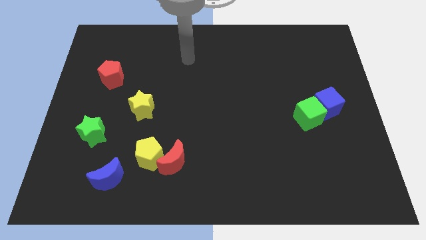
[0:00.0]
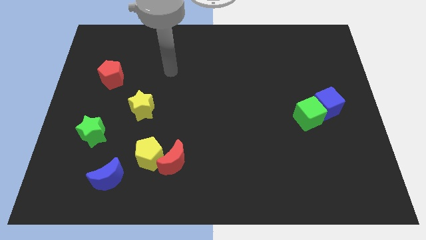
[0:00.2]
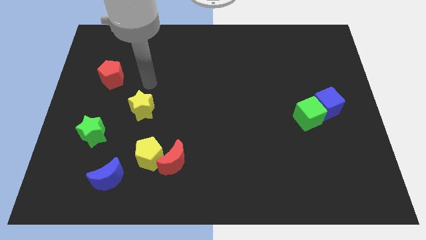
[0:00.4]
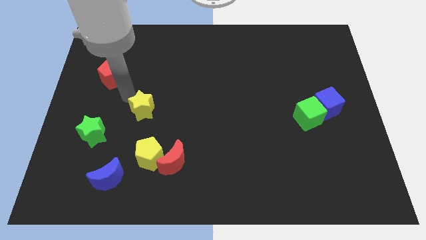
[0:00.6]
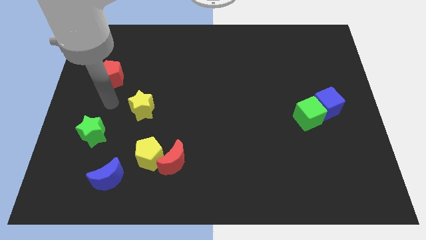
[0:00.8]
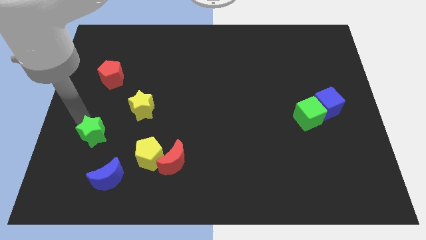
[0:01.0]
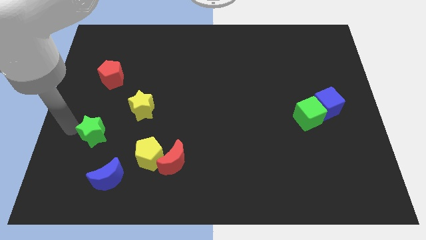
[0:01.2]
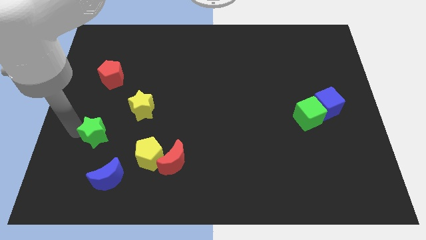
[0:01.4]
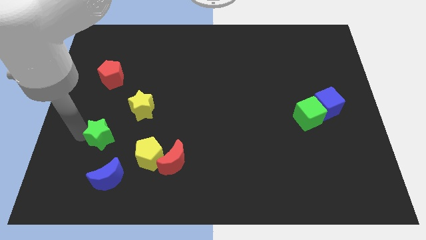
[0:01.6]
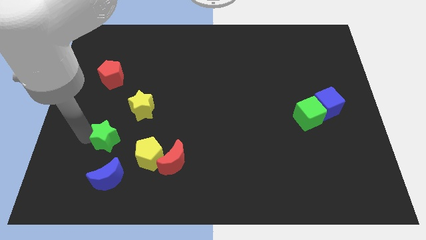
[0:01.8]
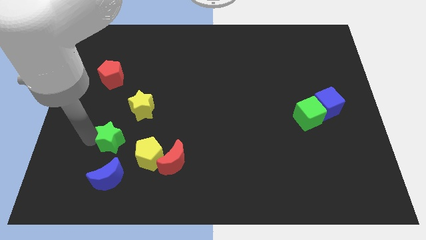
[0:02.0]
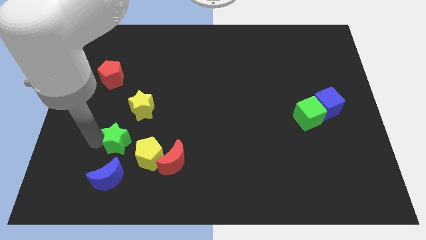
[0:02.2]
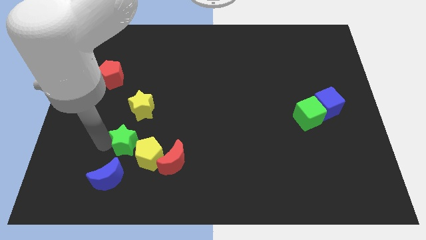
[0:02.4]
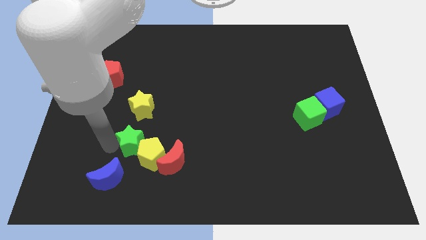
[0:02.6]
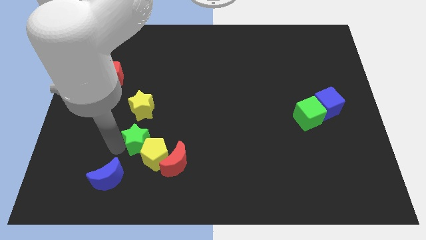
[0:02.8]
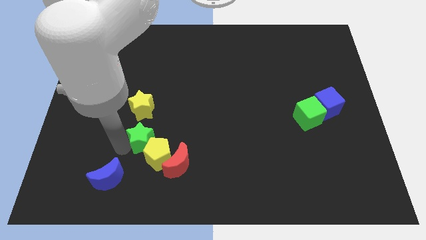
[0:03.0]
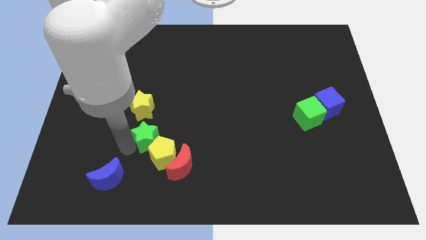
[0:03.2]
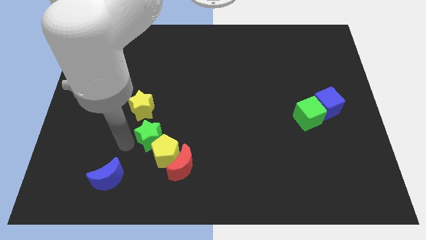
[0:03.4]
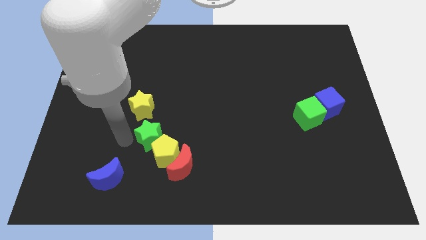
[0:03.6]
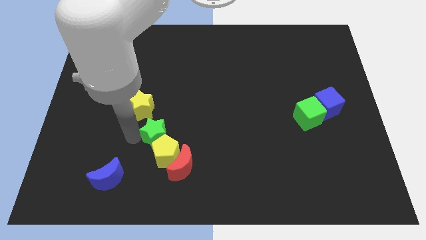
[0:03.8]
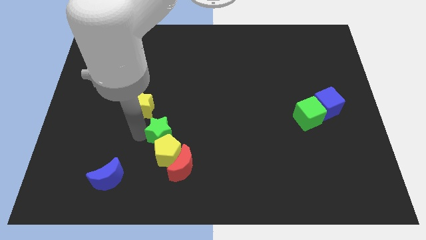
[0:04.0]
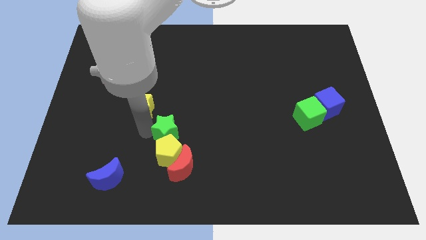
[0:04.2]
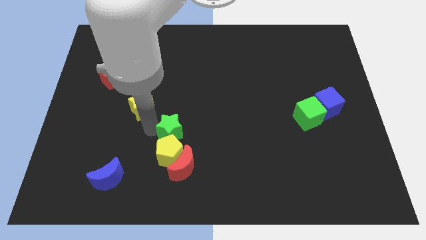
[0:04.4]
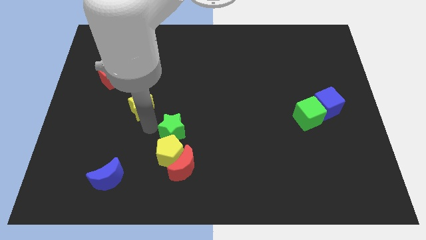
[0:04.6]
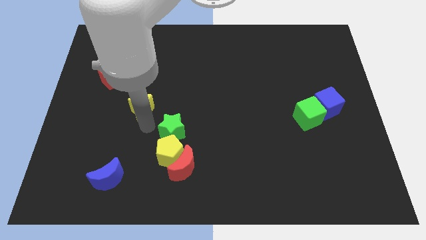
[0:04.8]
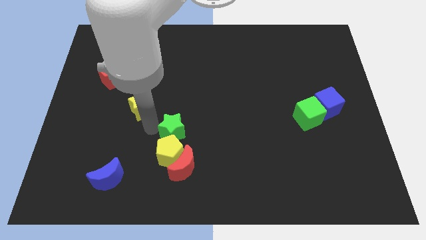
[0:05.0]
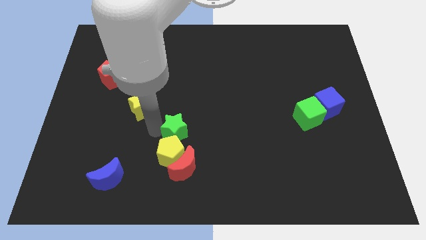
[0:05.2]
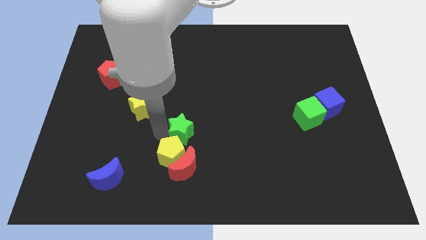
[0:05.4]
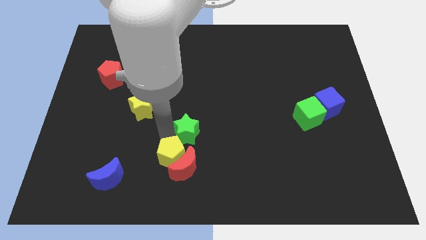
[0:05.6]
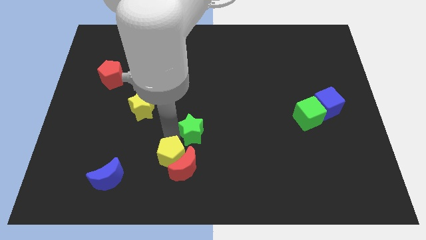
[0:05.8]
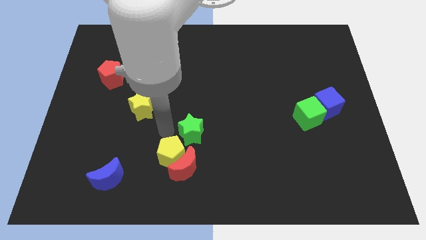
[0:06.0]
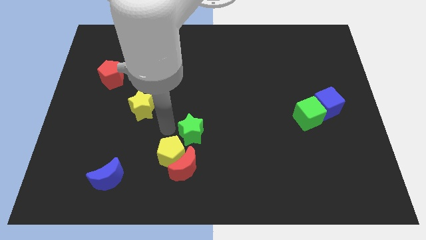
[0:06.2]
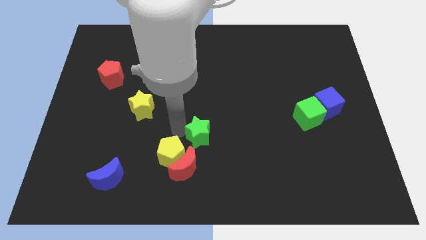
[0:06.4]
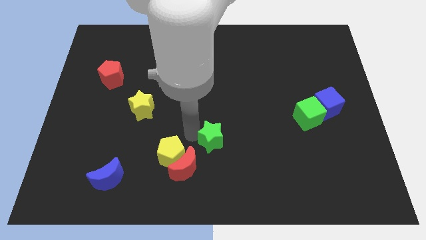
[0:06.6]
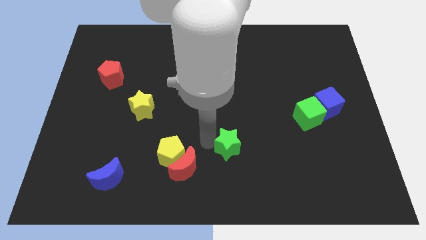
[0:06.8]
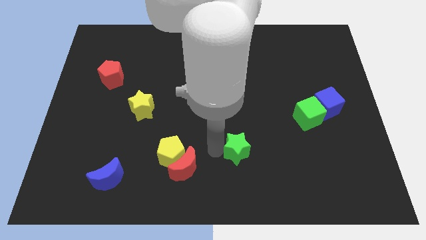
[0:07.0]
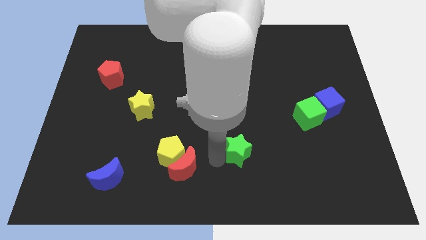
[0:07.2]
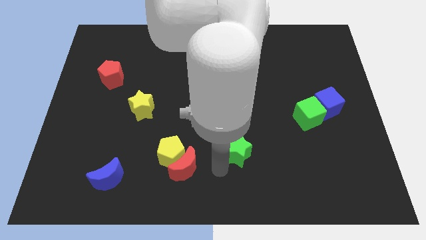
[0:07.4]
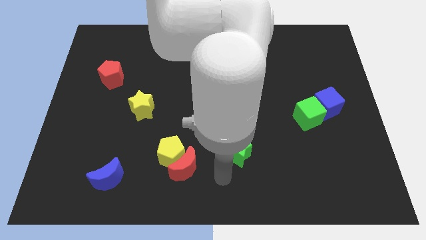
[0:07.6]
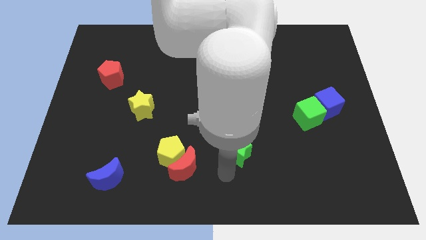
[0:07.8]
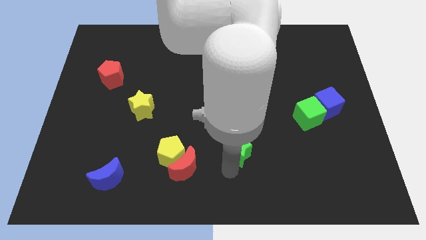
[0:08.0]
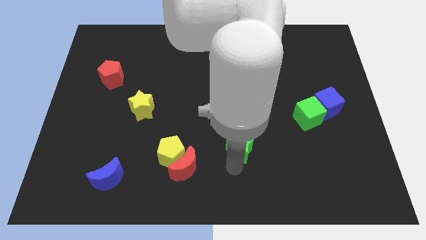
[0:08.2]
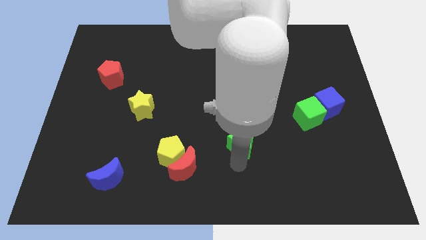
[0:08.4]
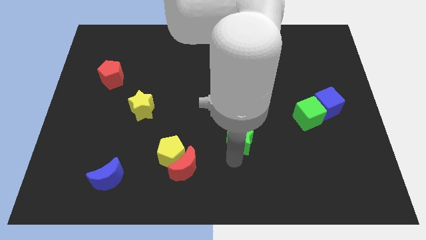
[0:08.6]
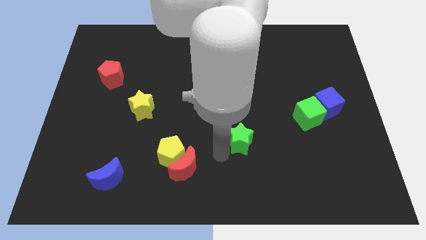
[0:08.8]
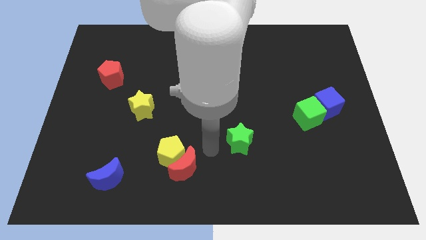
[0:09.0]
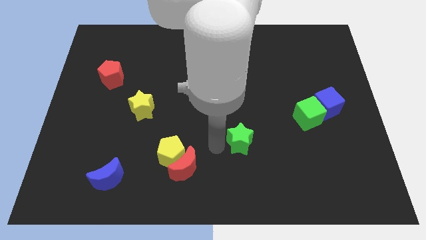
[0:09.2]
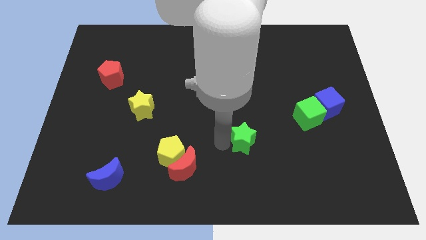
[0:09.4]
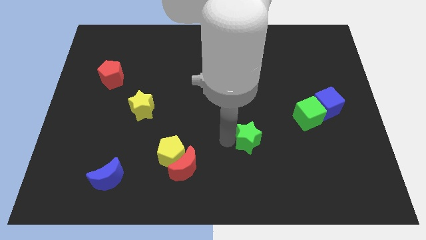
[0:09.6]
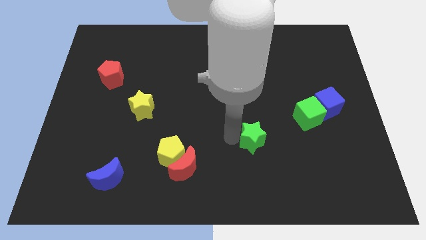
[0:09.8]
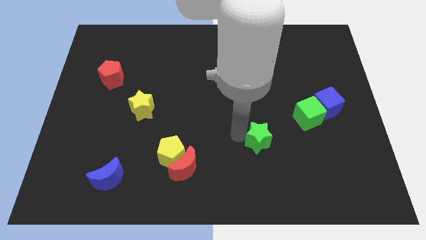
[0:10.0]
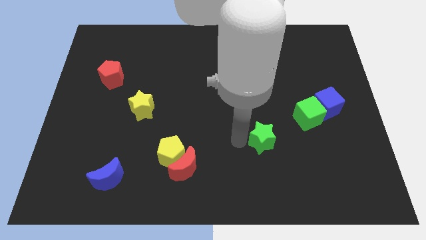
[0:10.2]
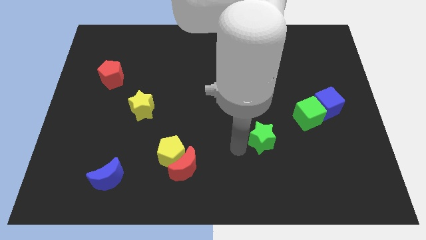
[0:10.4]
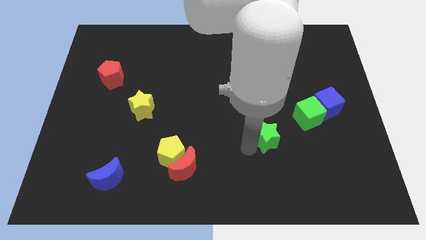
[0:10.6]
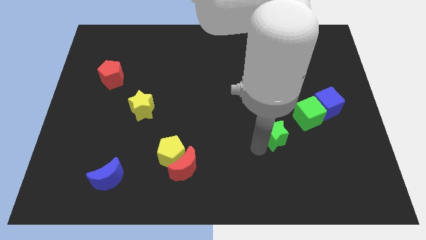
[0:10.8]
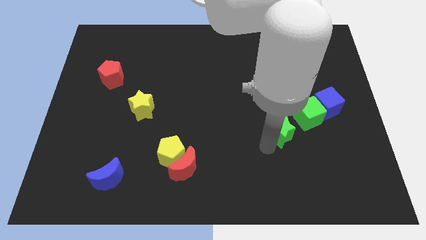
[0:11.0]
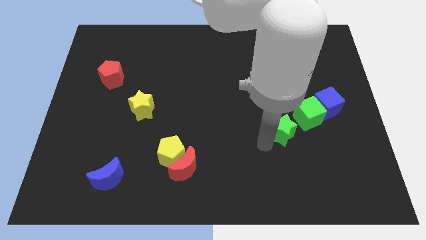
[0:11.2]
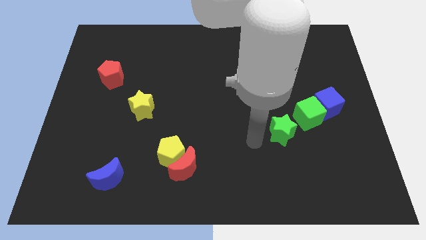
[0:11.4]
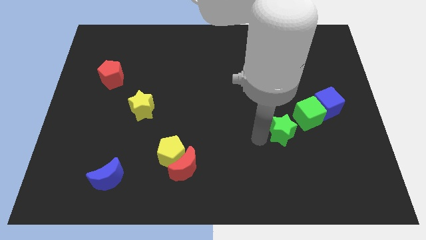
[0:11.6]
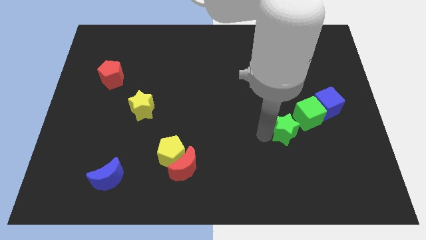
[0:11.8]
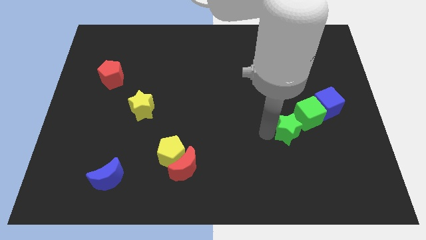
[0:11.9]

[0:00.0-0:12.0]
push the green star diagonally down and to the left of the blue cube

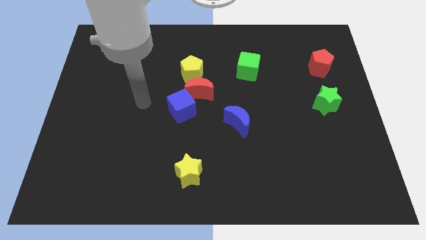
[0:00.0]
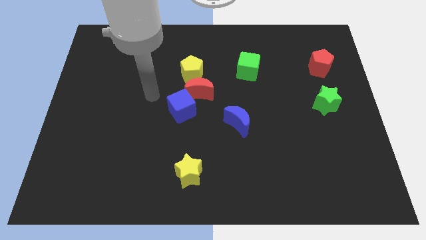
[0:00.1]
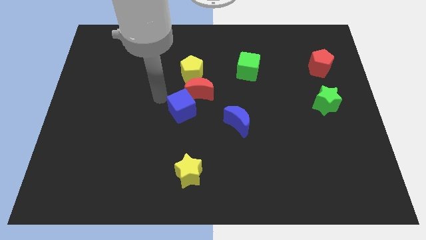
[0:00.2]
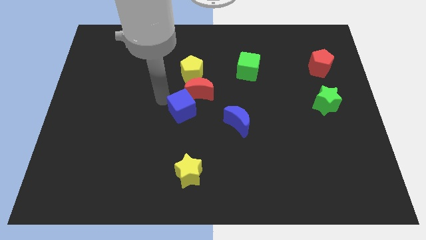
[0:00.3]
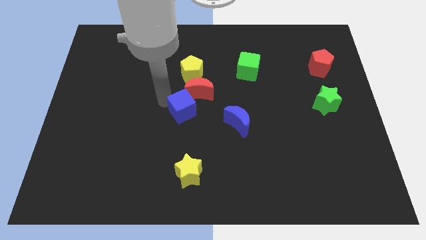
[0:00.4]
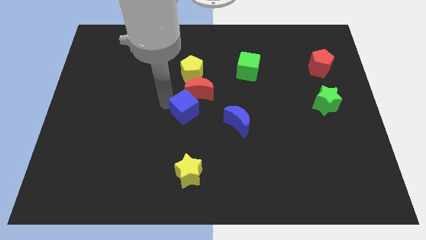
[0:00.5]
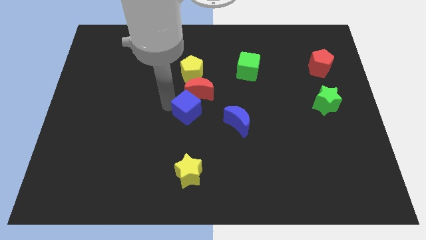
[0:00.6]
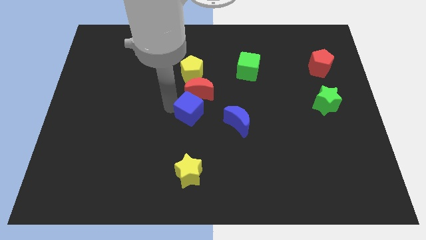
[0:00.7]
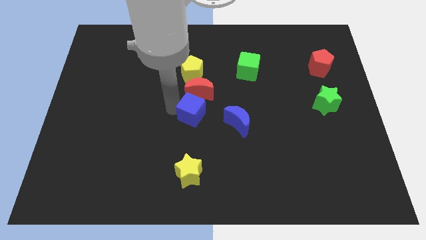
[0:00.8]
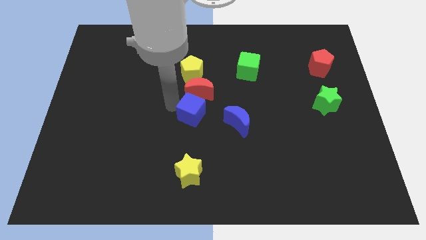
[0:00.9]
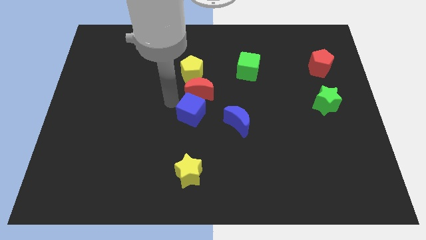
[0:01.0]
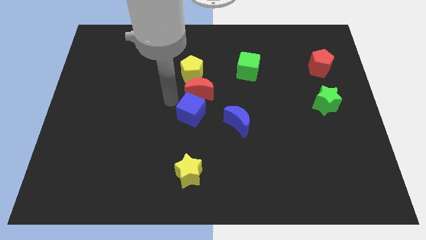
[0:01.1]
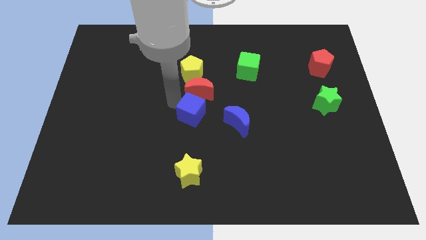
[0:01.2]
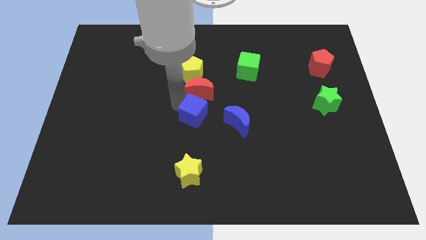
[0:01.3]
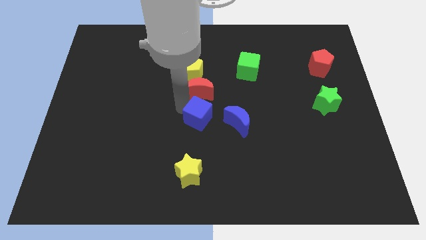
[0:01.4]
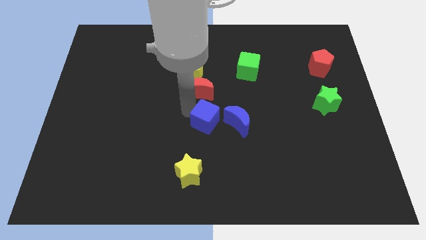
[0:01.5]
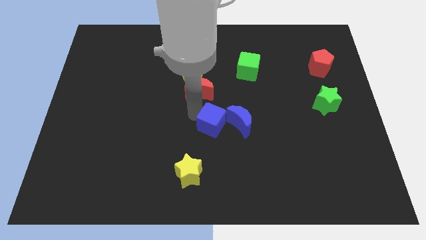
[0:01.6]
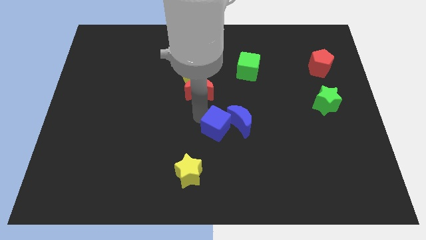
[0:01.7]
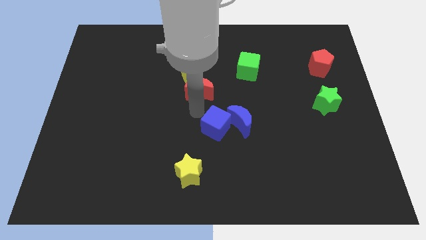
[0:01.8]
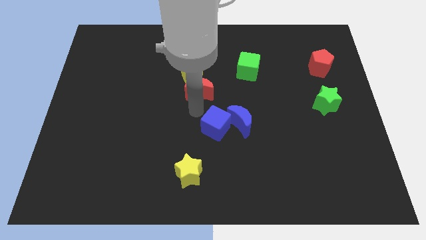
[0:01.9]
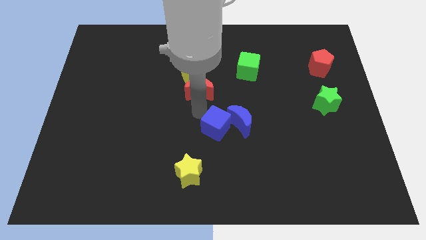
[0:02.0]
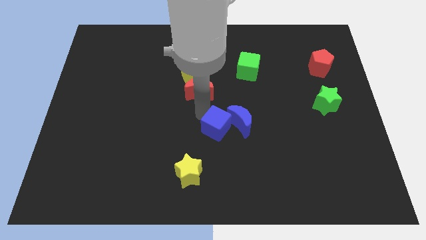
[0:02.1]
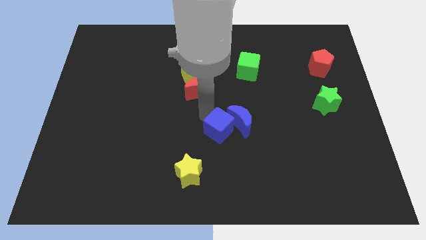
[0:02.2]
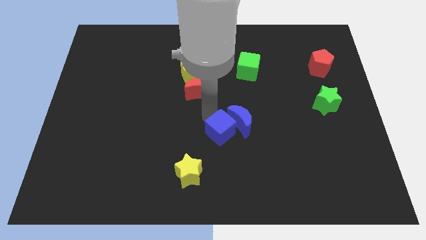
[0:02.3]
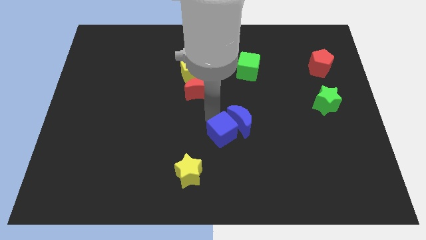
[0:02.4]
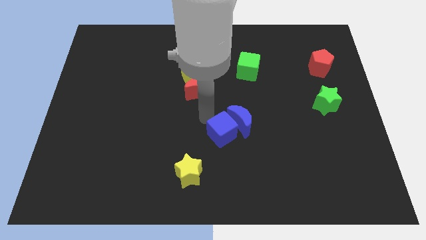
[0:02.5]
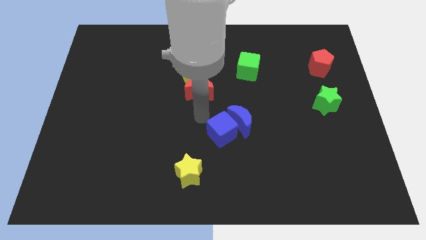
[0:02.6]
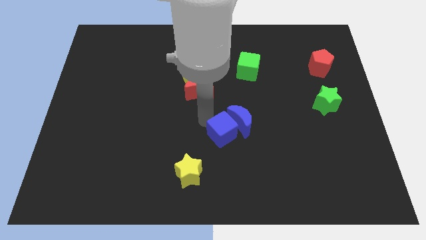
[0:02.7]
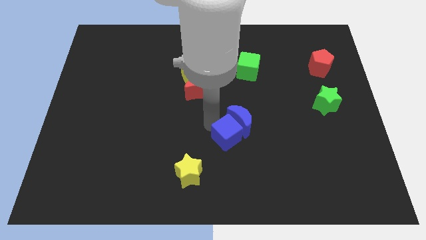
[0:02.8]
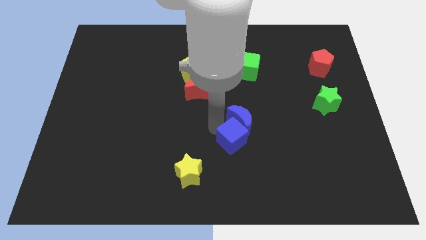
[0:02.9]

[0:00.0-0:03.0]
push the blue cube diagonally down and to the right of the blue moon
